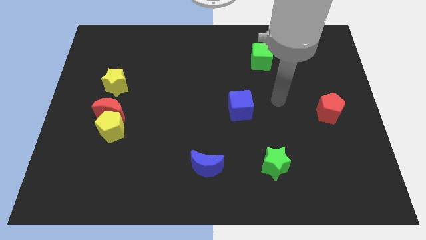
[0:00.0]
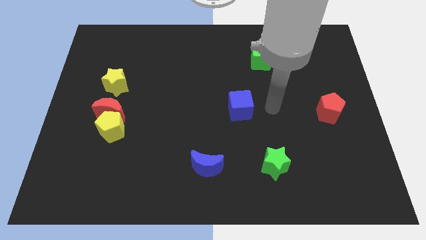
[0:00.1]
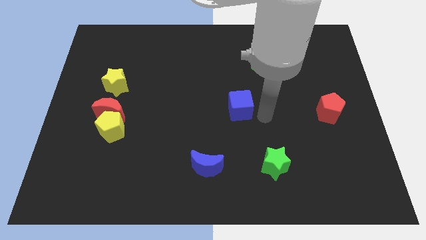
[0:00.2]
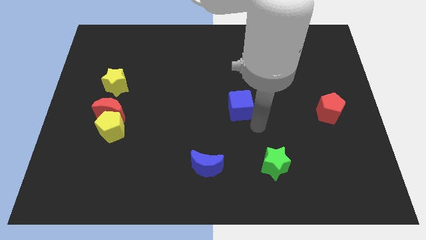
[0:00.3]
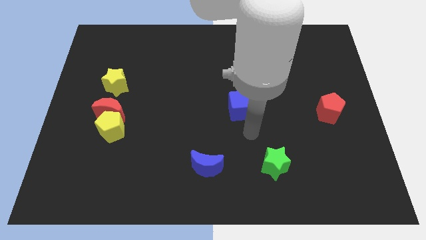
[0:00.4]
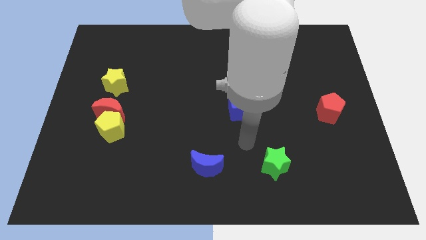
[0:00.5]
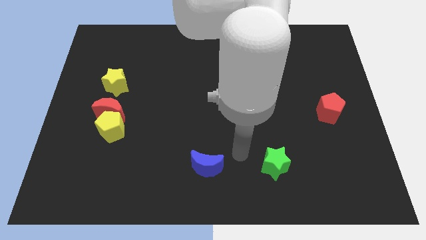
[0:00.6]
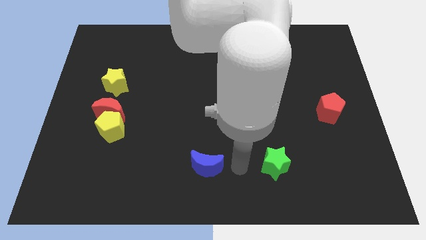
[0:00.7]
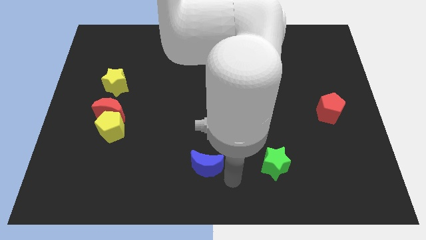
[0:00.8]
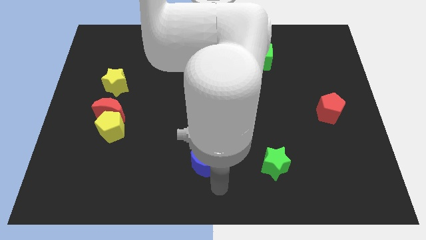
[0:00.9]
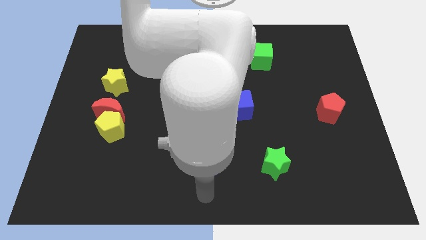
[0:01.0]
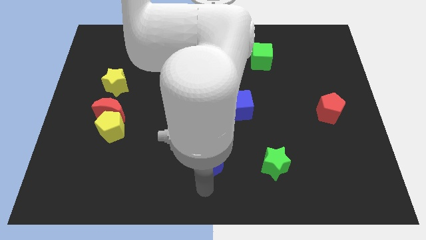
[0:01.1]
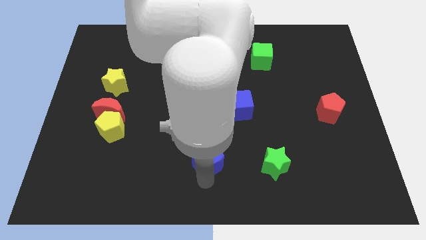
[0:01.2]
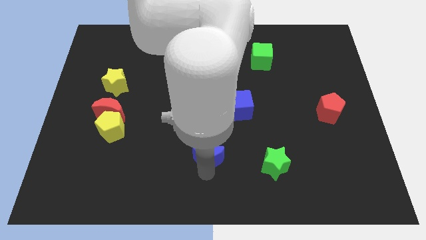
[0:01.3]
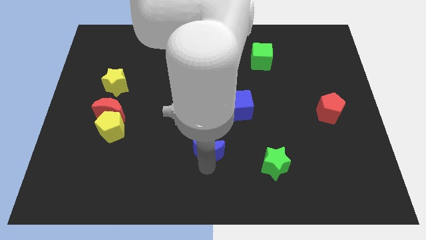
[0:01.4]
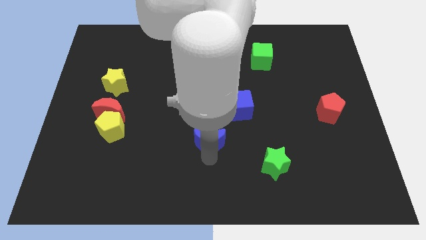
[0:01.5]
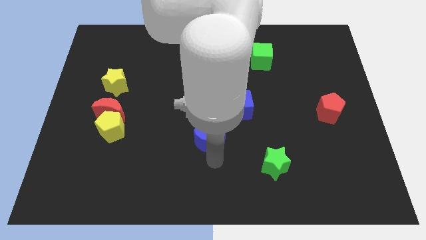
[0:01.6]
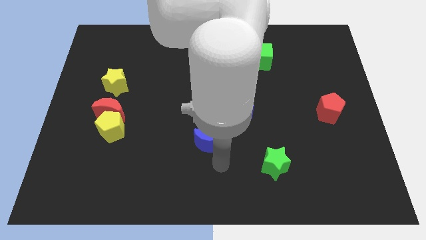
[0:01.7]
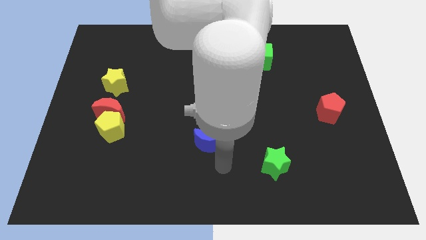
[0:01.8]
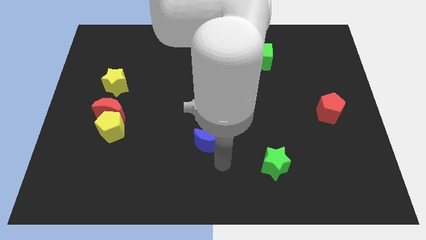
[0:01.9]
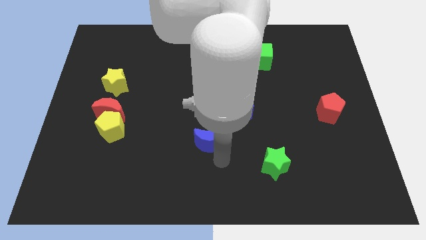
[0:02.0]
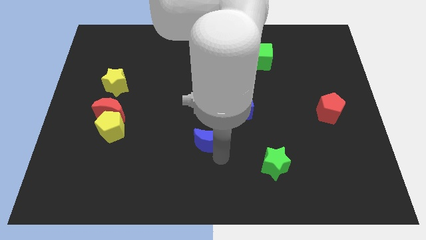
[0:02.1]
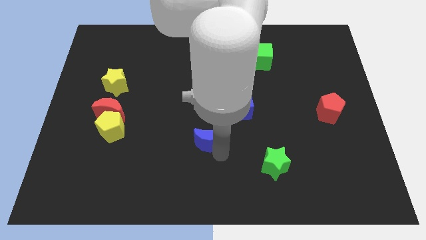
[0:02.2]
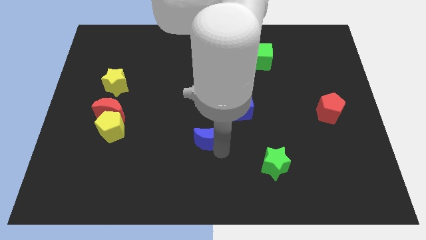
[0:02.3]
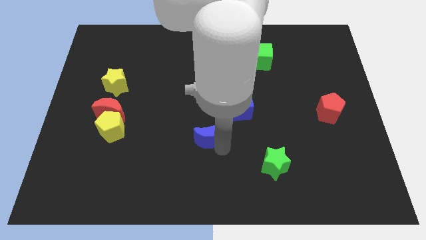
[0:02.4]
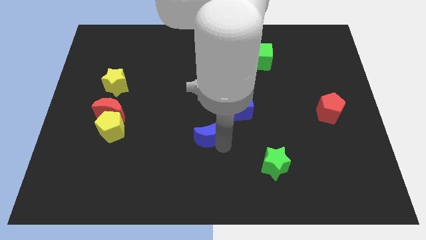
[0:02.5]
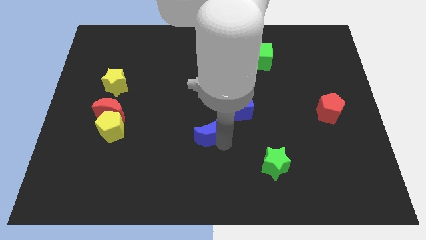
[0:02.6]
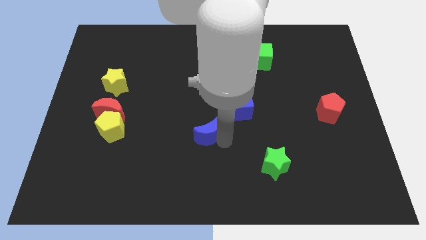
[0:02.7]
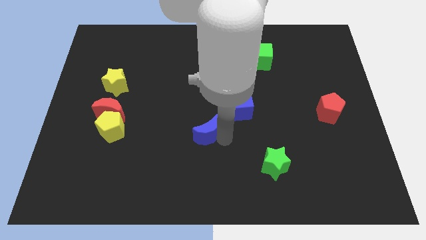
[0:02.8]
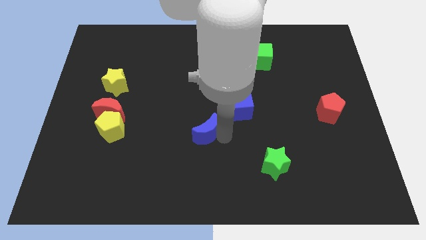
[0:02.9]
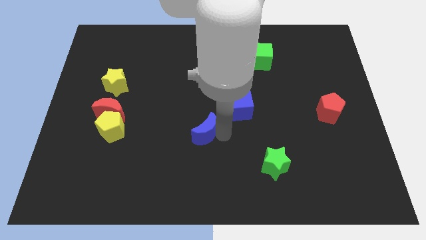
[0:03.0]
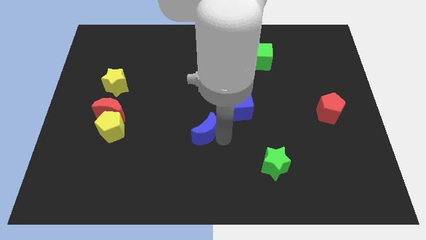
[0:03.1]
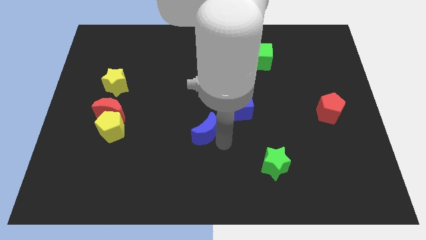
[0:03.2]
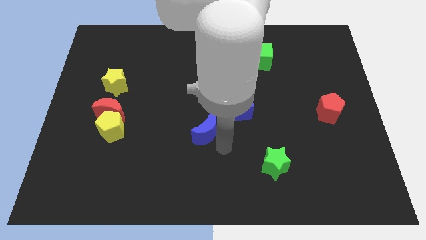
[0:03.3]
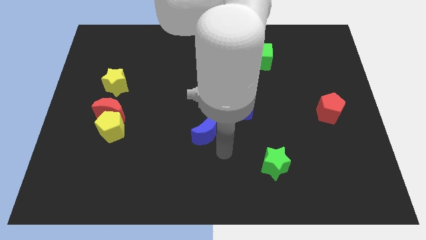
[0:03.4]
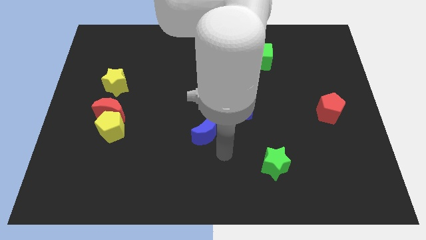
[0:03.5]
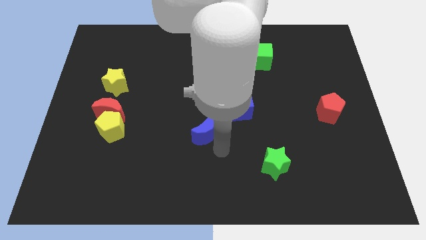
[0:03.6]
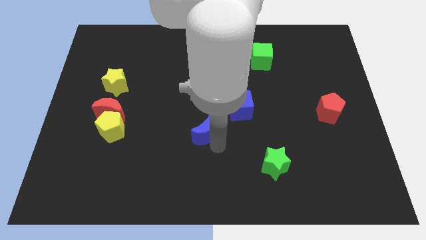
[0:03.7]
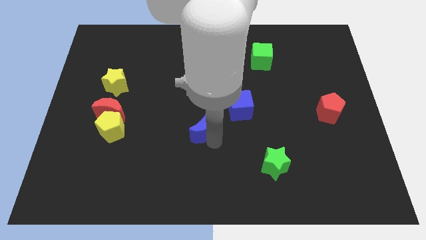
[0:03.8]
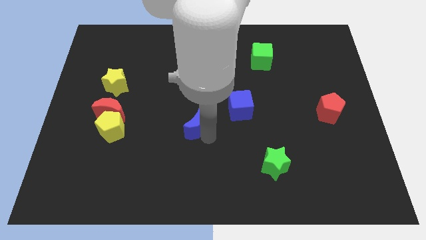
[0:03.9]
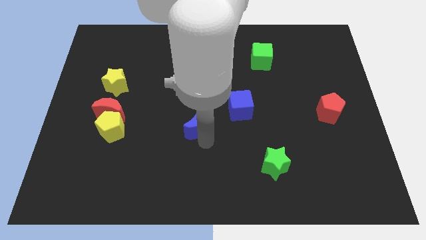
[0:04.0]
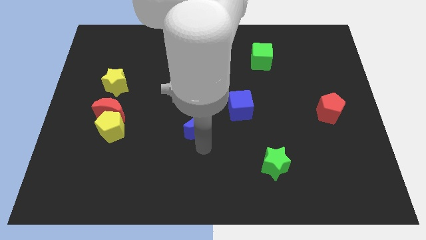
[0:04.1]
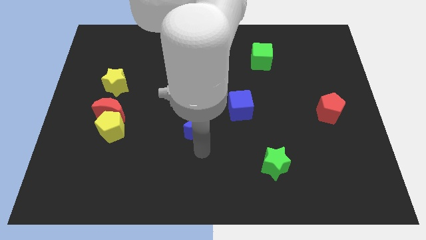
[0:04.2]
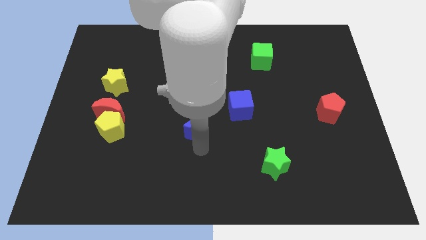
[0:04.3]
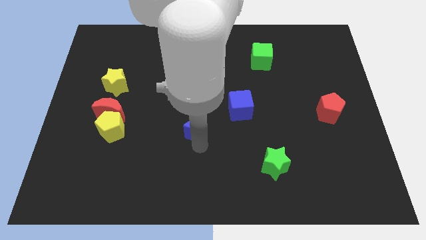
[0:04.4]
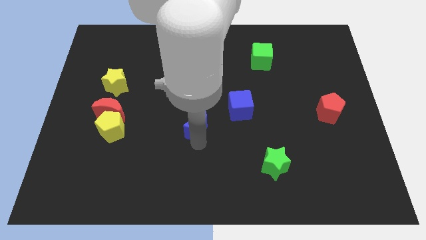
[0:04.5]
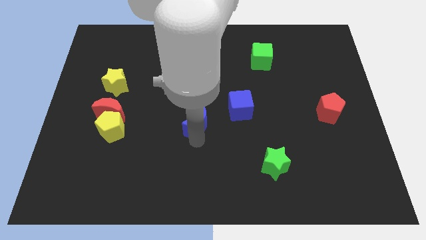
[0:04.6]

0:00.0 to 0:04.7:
push the blue moon to the left of the blue cube

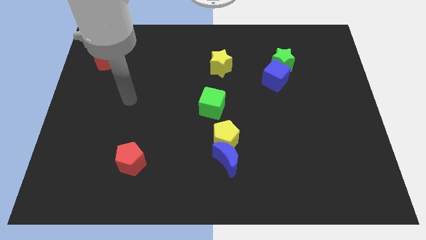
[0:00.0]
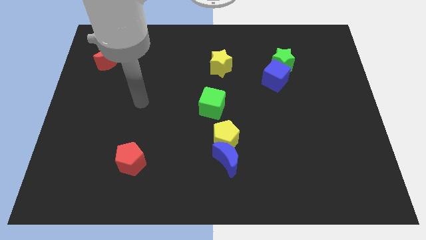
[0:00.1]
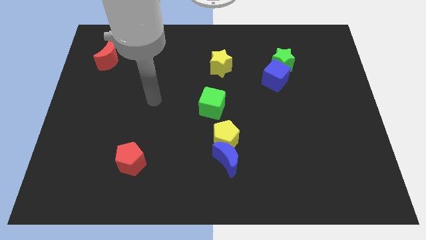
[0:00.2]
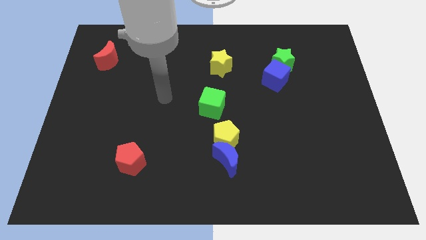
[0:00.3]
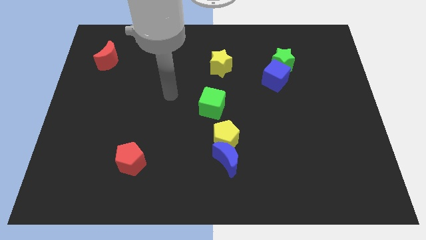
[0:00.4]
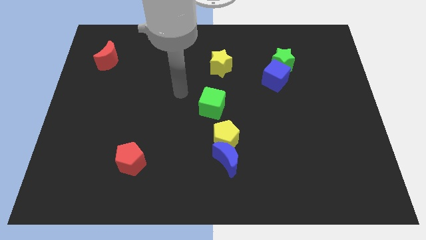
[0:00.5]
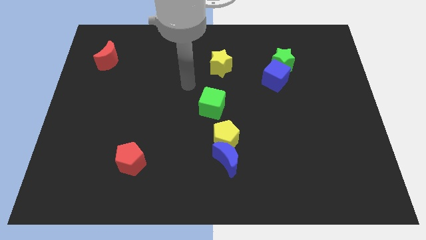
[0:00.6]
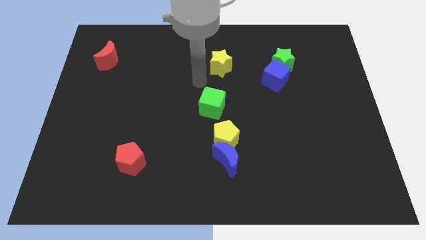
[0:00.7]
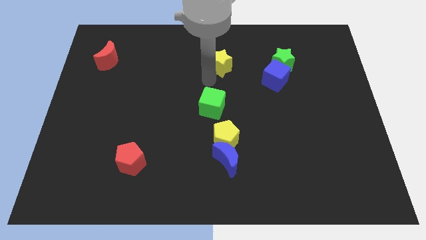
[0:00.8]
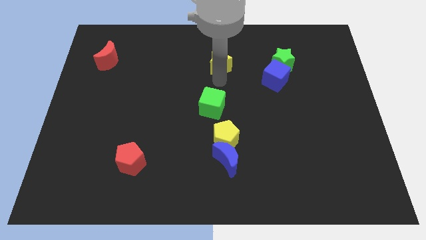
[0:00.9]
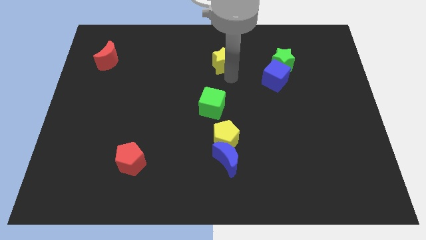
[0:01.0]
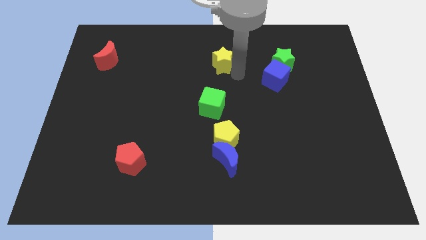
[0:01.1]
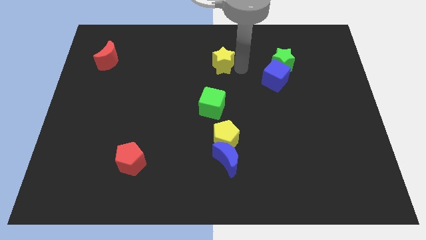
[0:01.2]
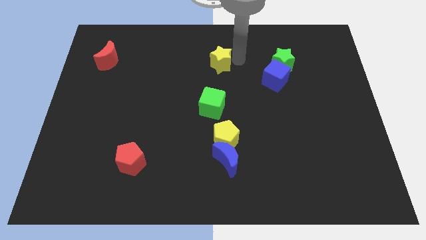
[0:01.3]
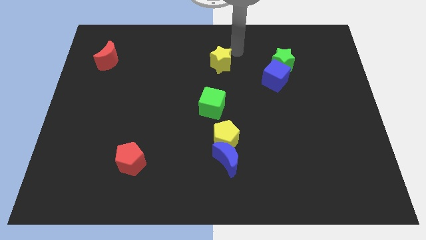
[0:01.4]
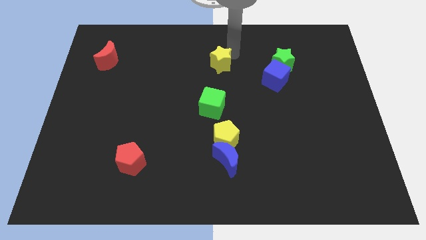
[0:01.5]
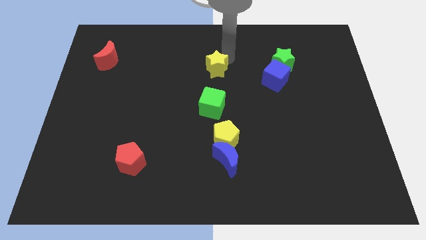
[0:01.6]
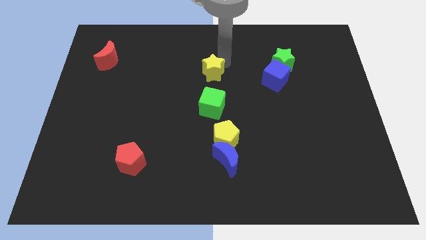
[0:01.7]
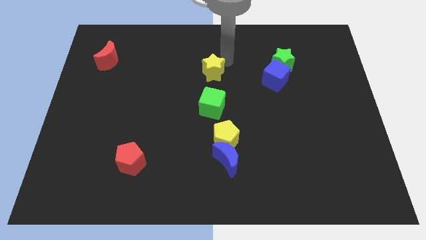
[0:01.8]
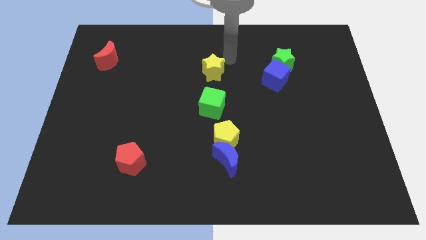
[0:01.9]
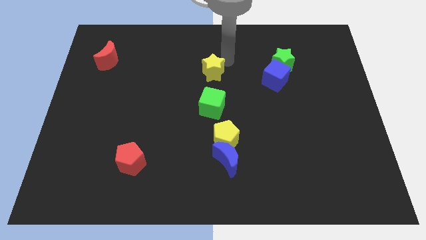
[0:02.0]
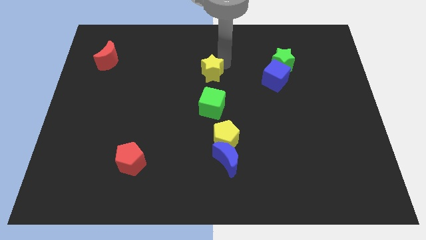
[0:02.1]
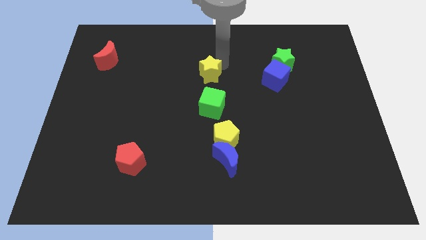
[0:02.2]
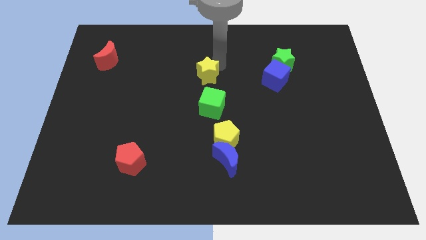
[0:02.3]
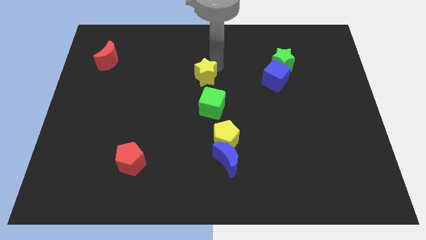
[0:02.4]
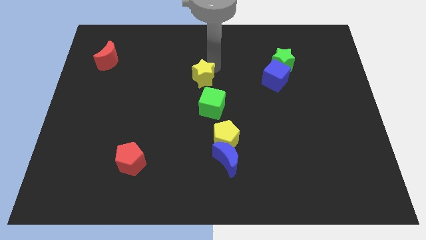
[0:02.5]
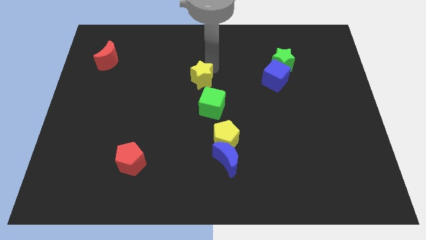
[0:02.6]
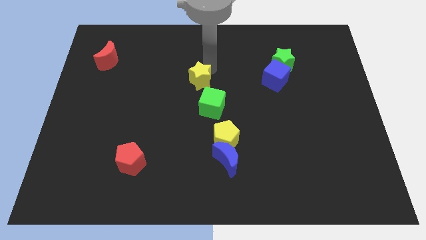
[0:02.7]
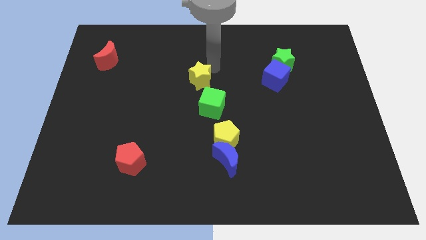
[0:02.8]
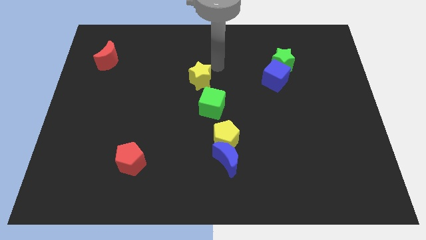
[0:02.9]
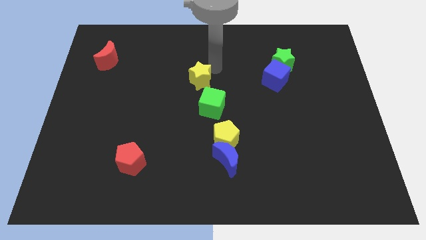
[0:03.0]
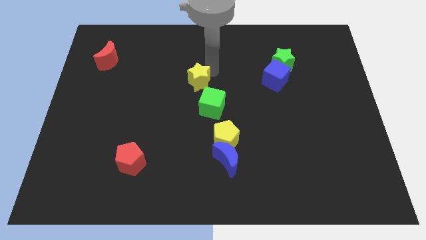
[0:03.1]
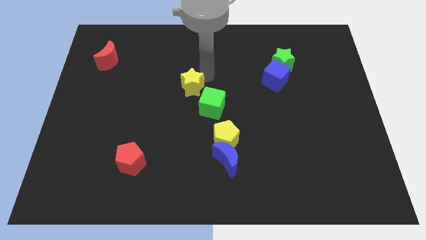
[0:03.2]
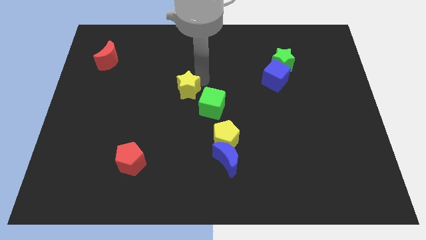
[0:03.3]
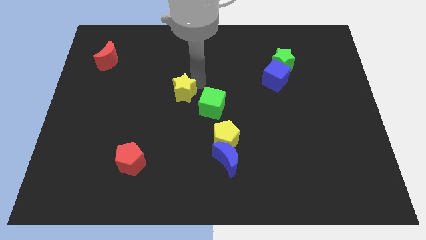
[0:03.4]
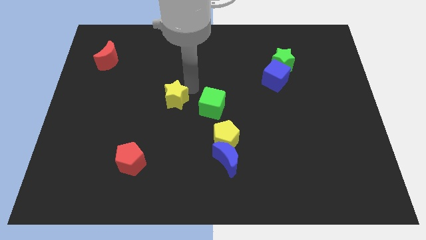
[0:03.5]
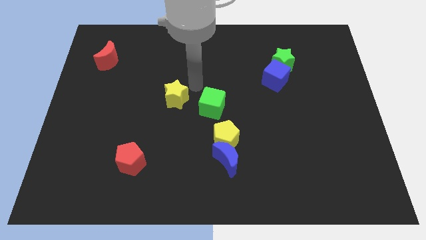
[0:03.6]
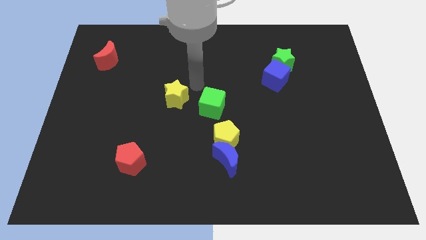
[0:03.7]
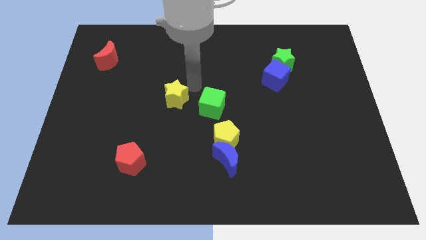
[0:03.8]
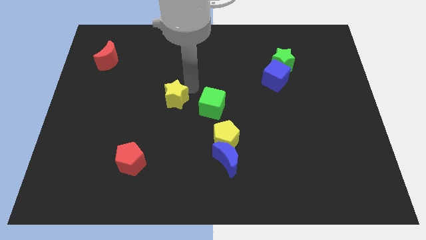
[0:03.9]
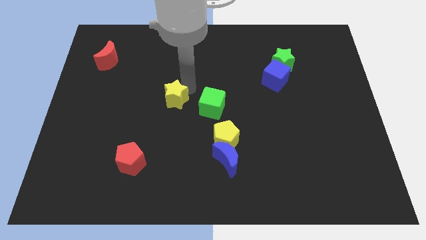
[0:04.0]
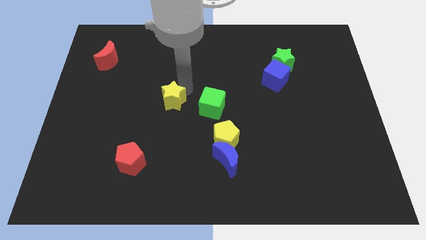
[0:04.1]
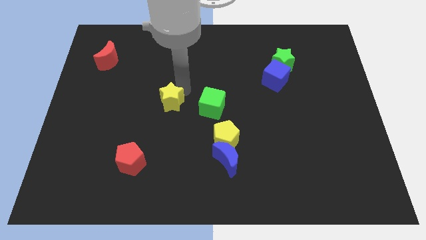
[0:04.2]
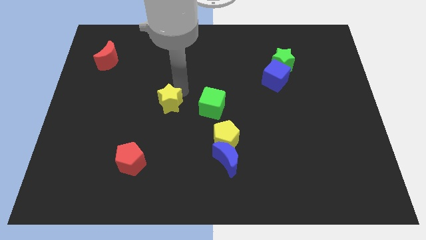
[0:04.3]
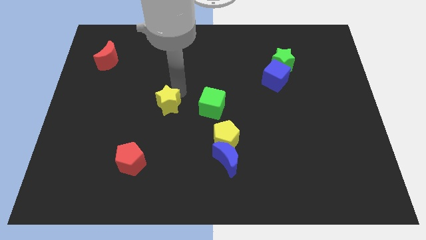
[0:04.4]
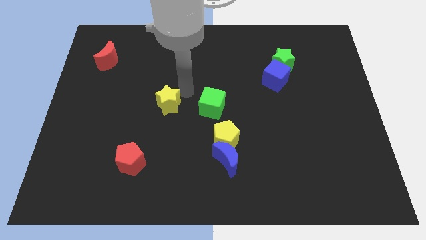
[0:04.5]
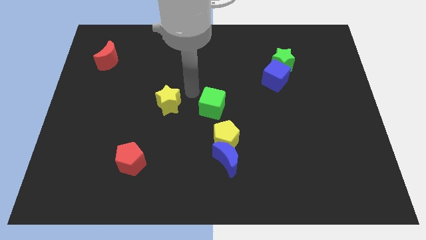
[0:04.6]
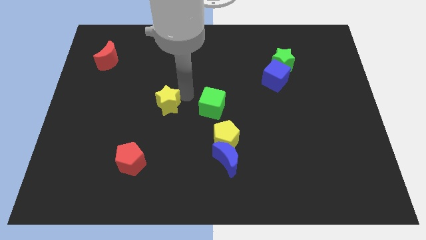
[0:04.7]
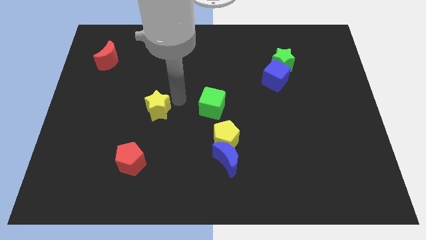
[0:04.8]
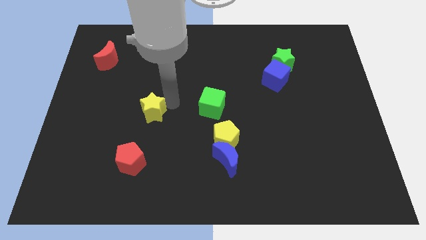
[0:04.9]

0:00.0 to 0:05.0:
move the yellow star to the top side of the red pentagon
